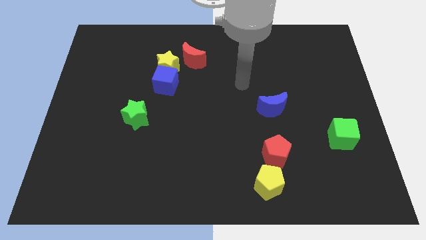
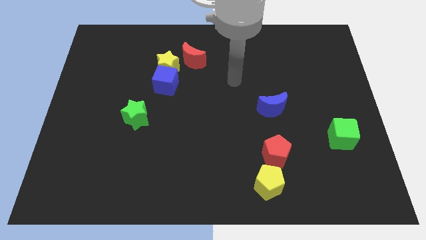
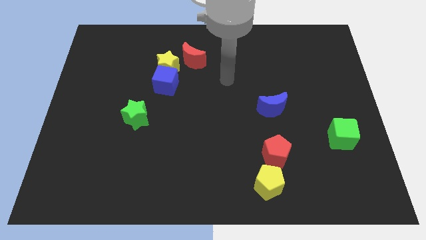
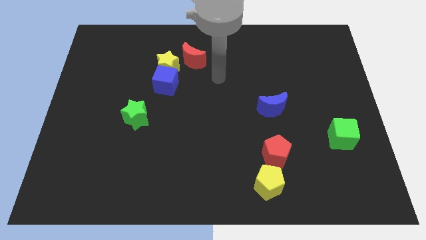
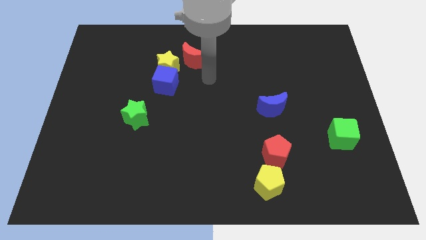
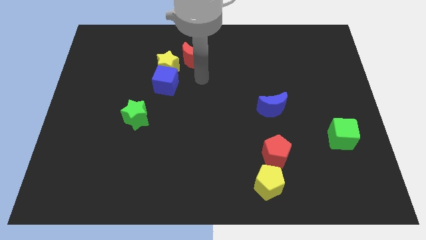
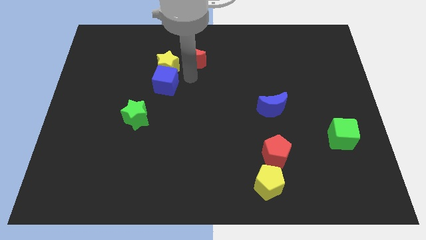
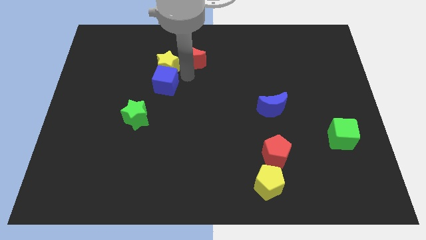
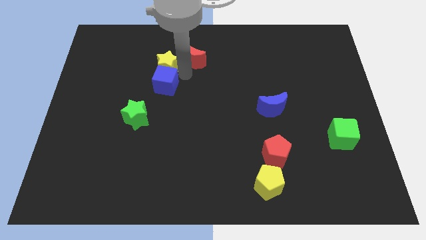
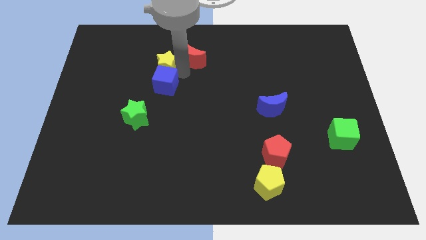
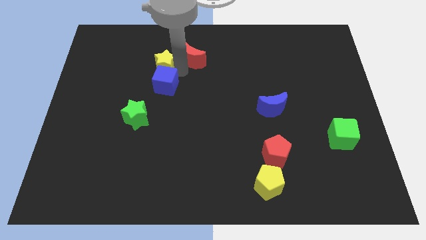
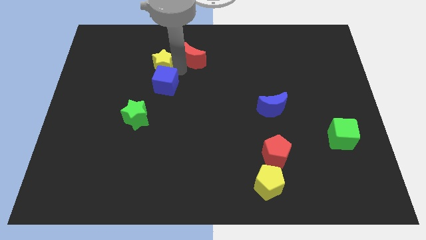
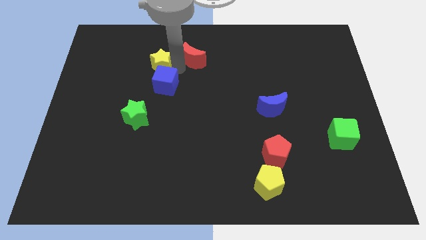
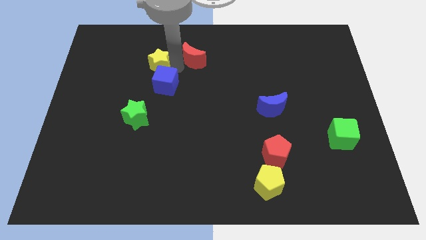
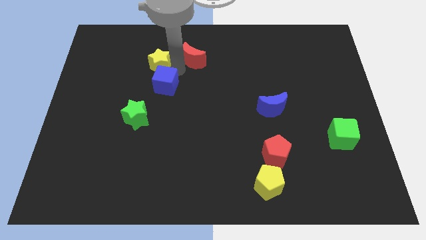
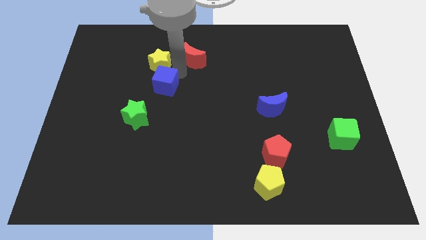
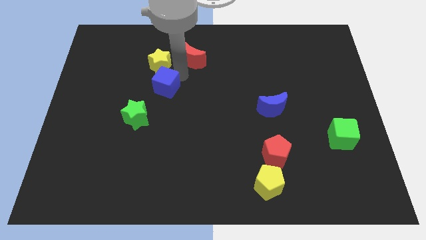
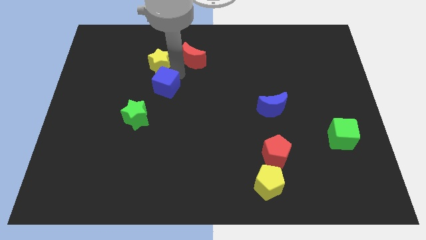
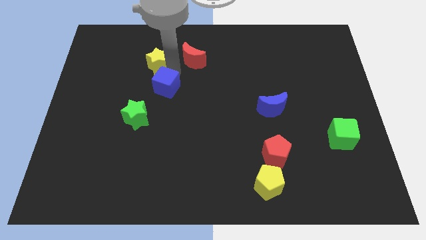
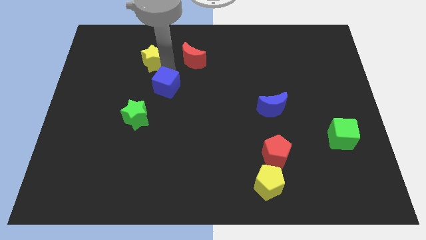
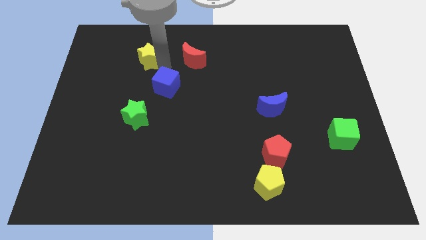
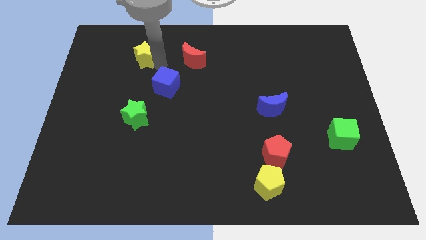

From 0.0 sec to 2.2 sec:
separate the yellow star from the blue cube and red moon

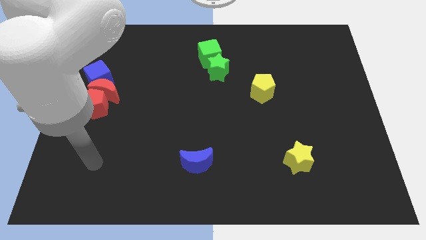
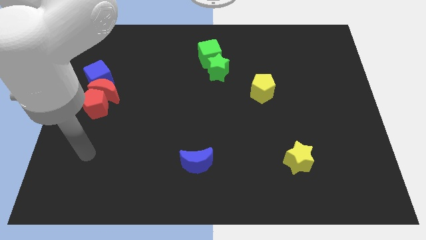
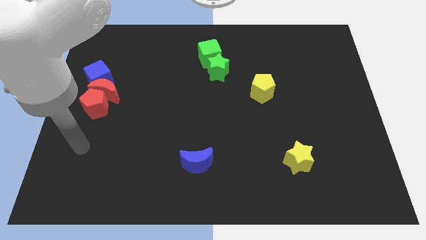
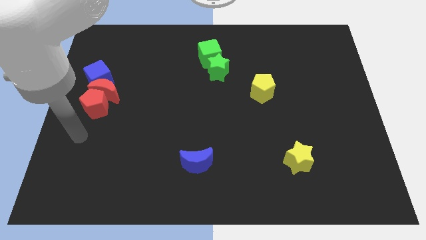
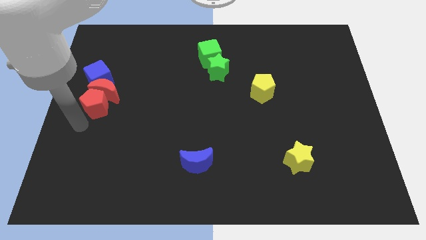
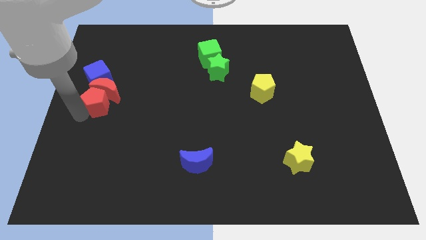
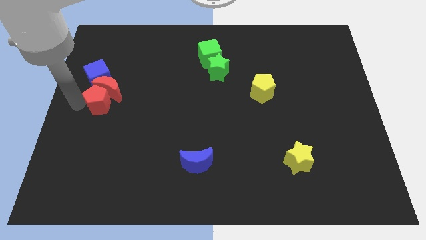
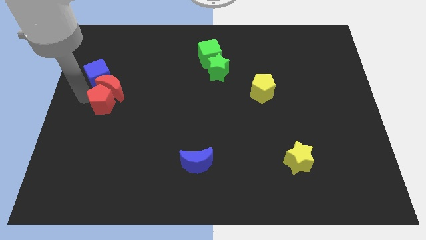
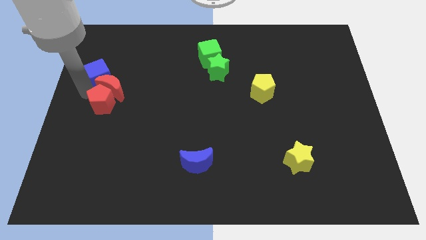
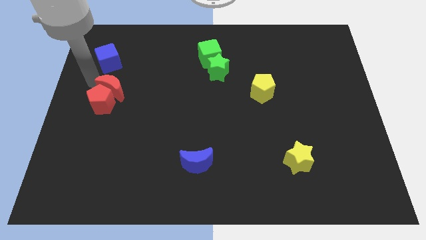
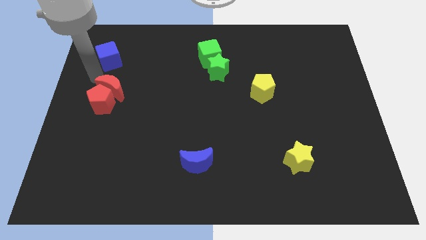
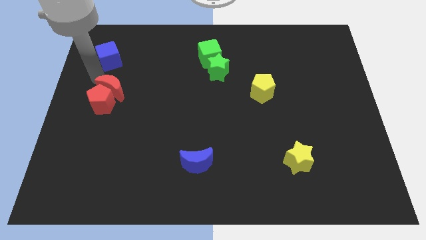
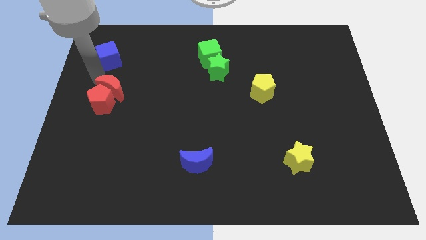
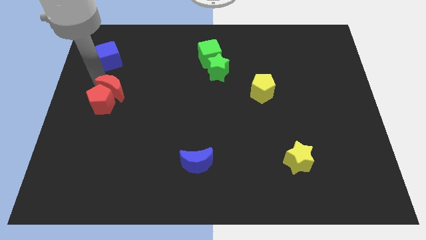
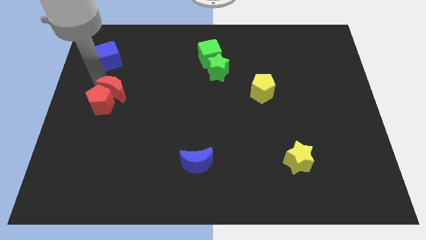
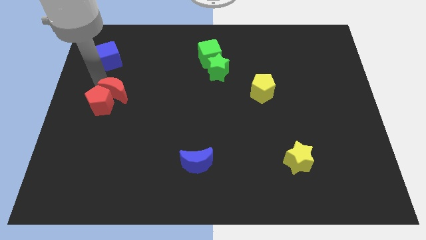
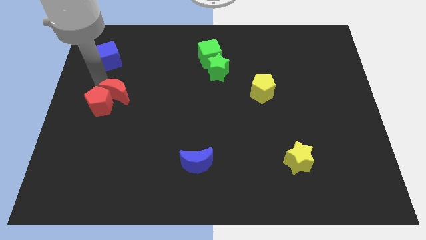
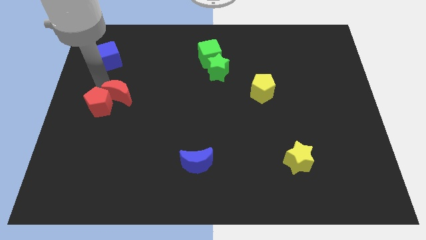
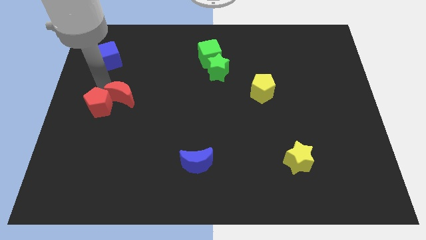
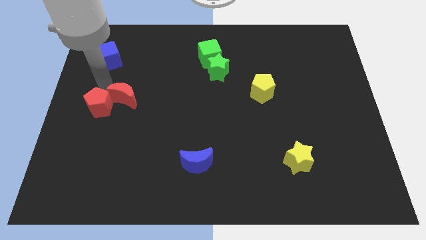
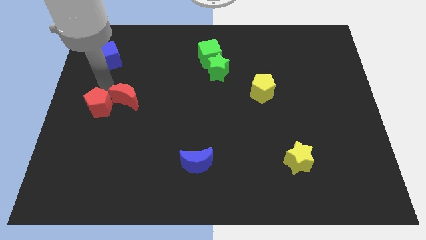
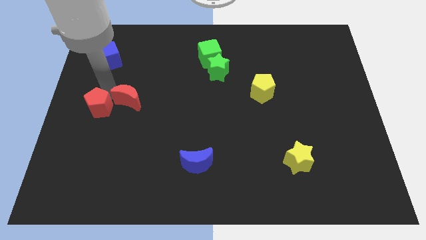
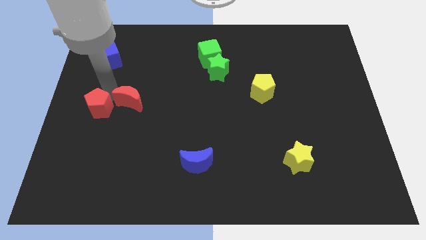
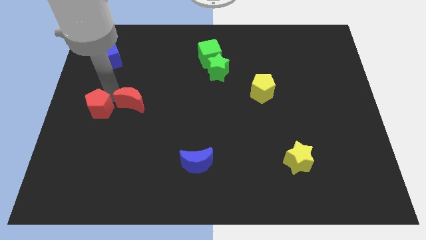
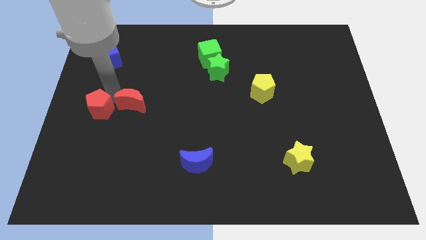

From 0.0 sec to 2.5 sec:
pull the red moon apart from the red pentagon and blue cube

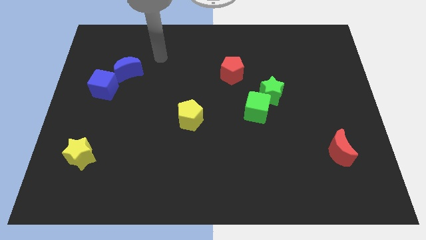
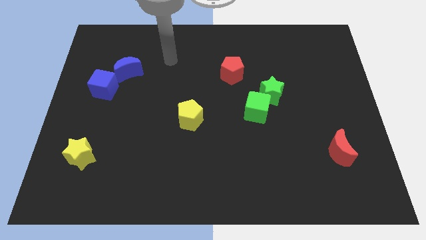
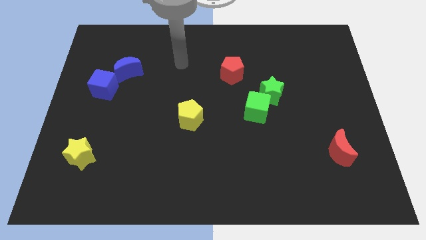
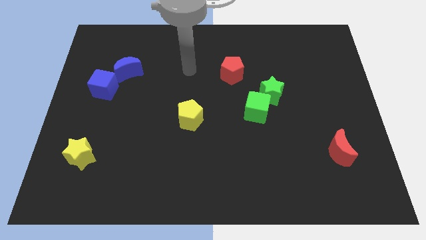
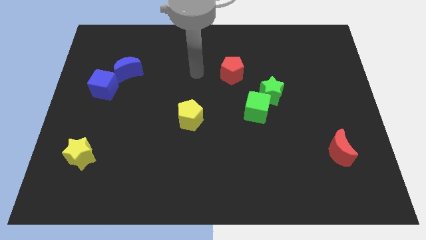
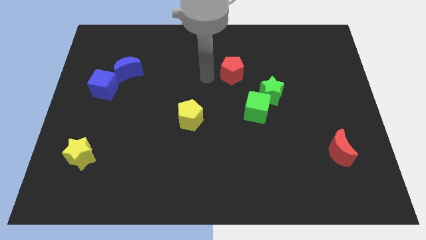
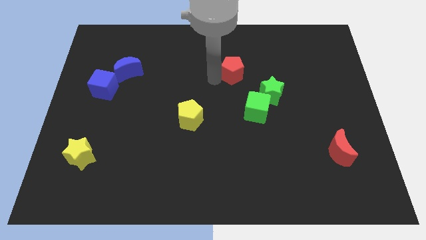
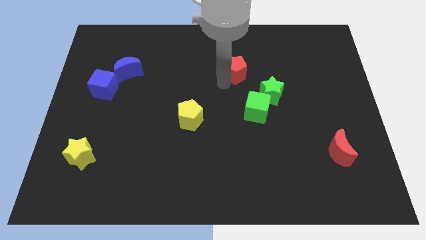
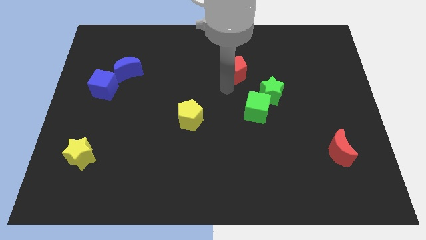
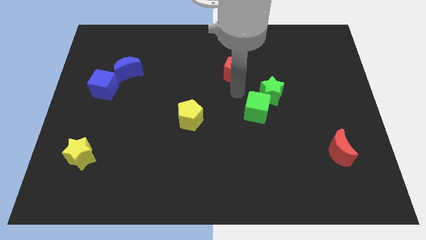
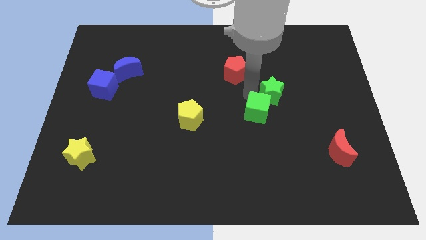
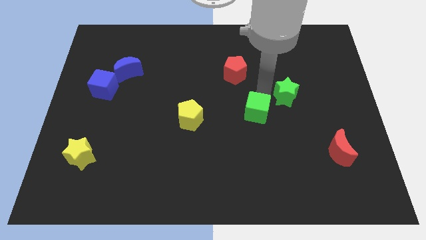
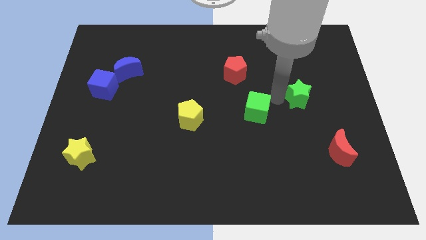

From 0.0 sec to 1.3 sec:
pull the green cube apart from the green star

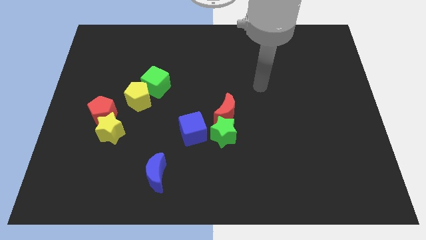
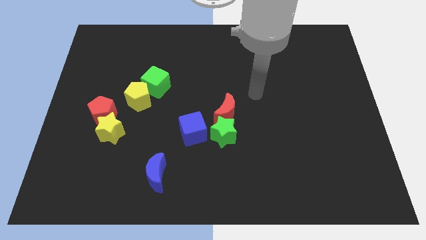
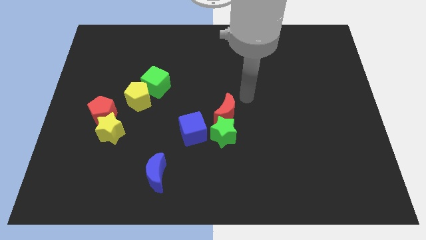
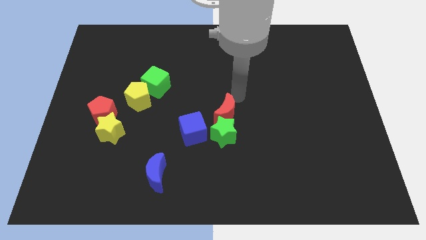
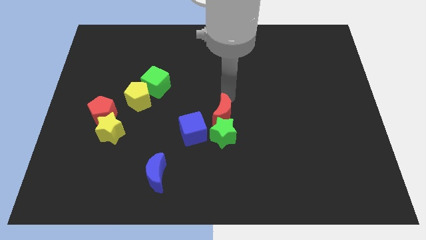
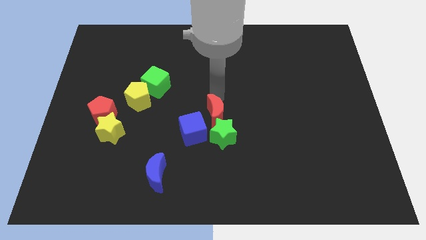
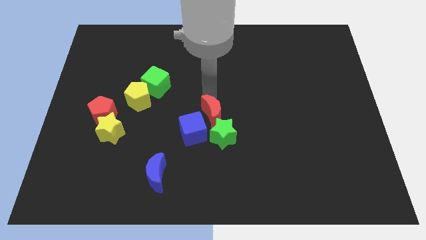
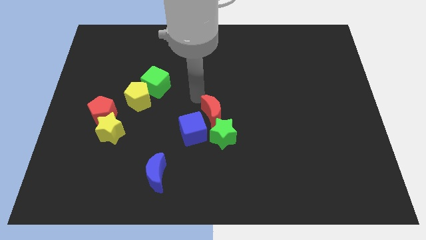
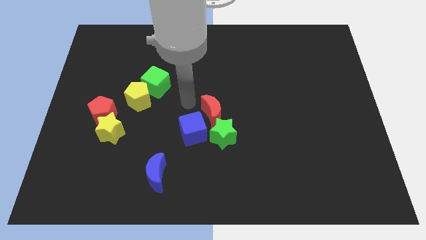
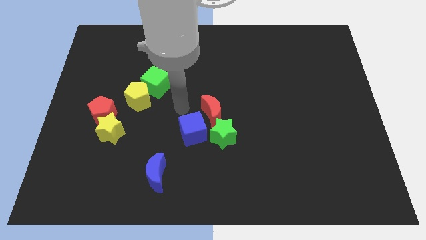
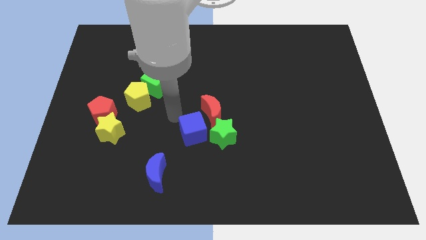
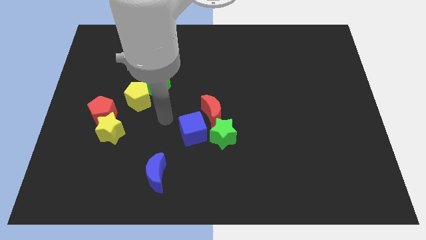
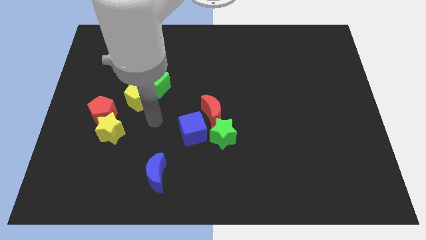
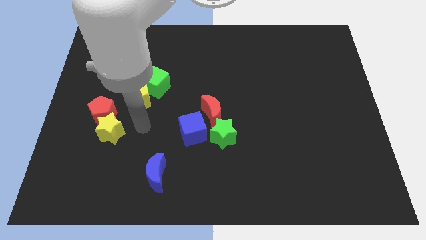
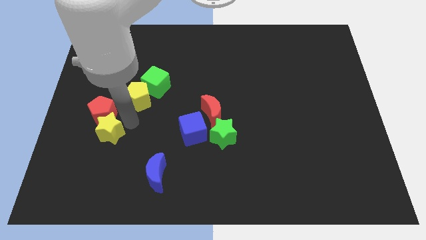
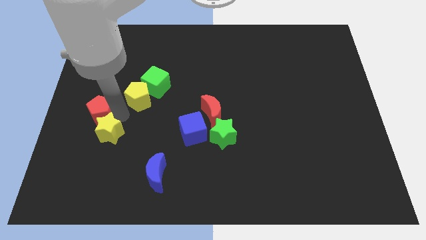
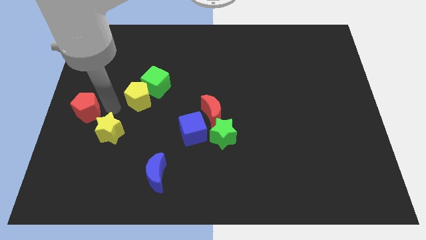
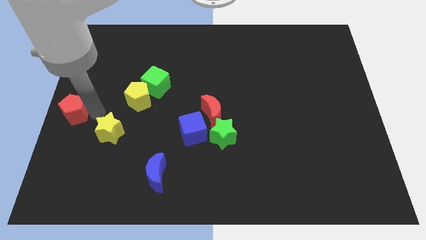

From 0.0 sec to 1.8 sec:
separate the yellow star from the red pentagon

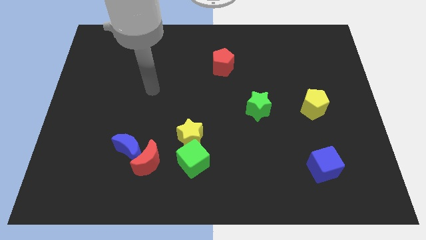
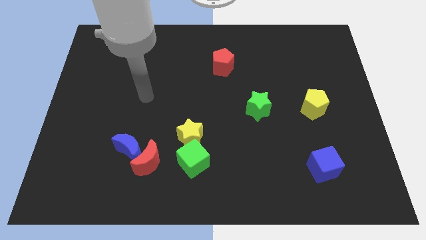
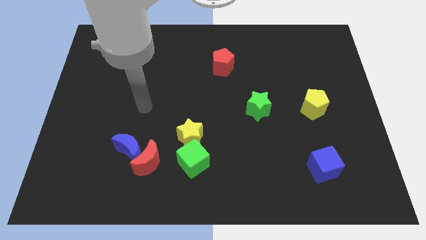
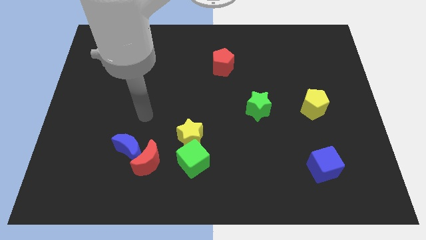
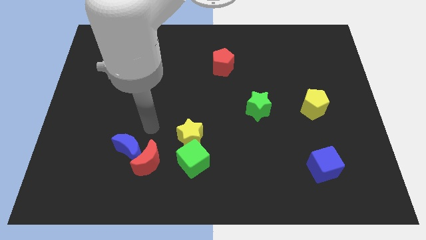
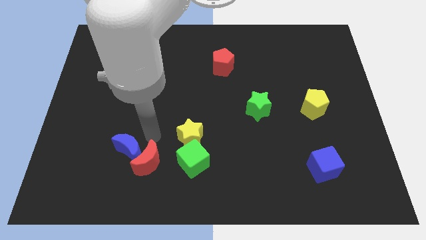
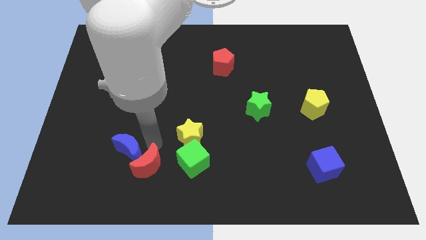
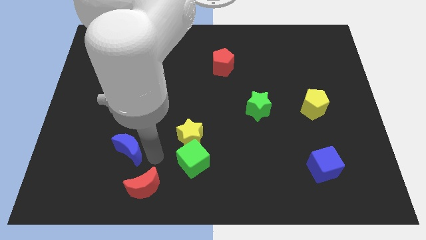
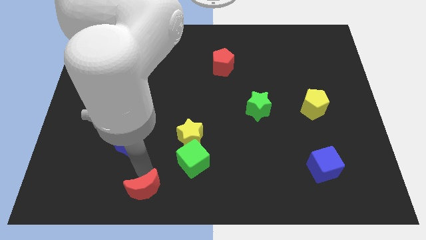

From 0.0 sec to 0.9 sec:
separate the blue moon from the red moon

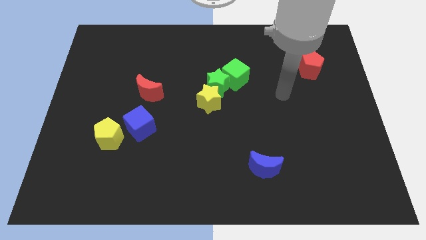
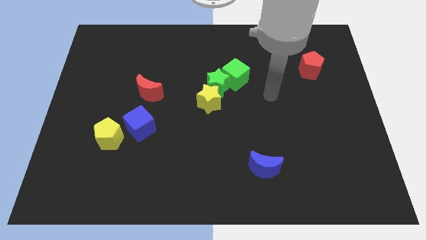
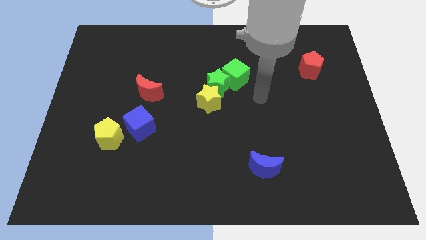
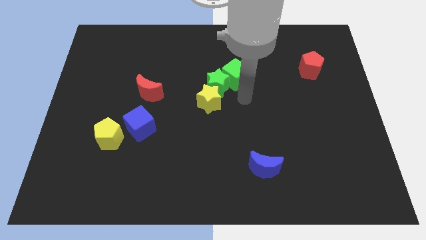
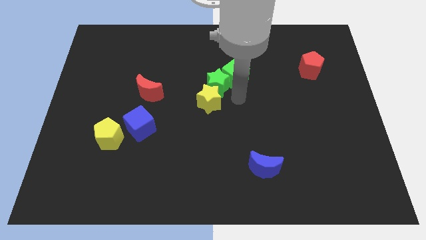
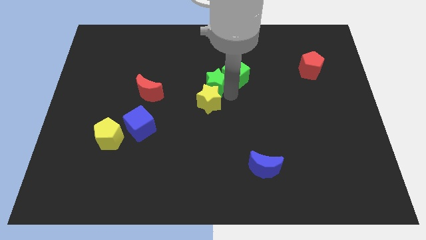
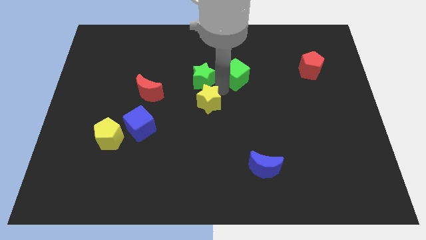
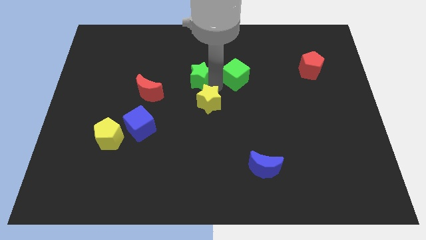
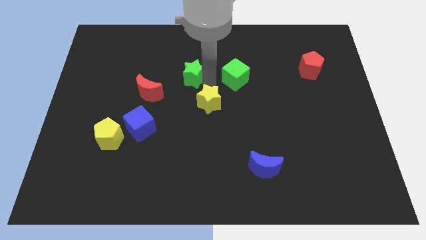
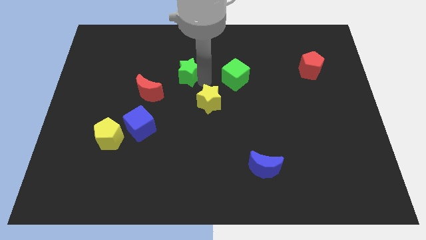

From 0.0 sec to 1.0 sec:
separate the green star from the yellow star and green cube
